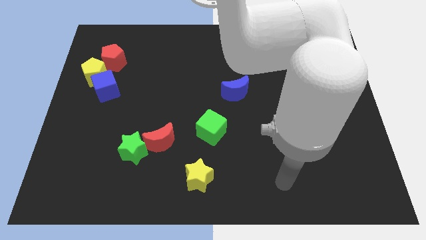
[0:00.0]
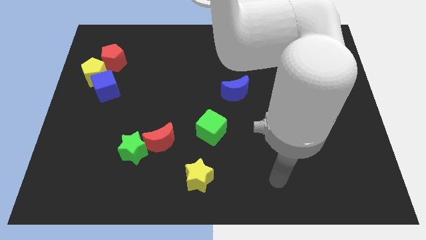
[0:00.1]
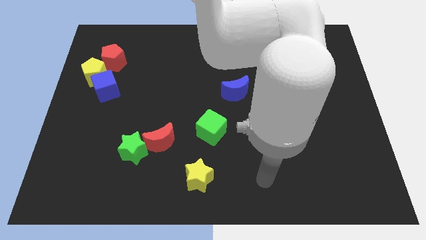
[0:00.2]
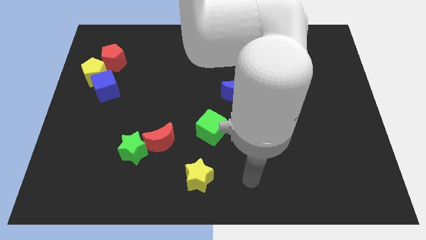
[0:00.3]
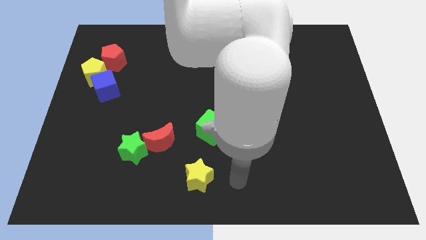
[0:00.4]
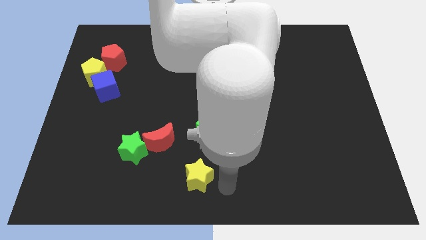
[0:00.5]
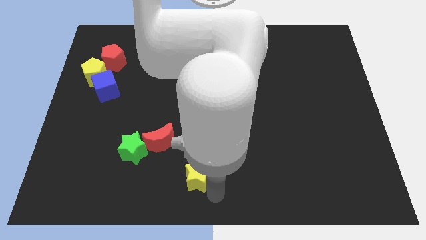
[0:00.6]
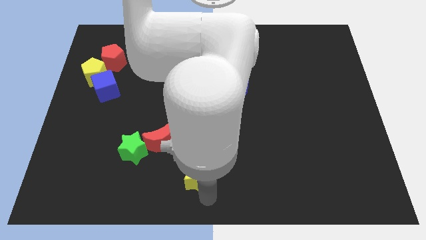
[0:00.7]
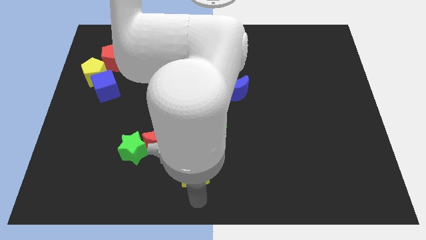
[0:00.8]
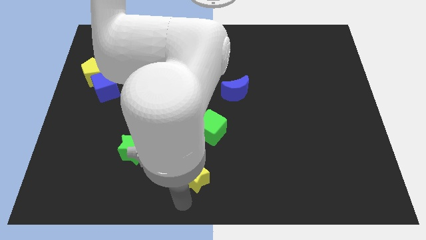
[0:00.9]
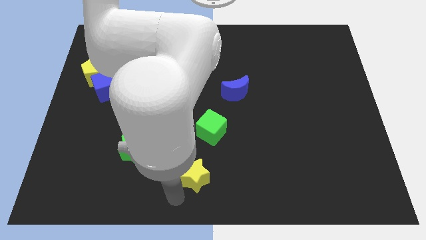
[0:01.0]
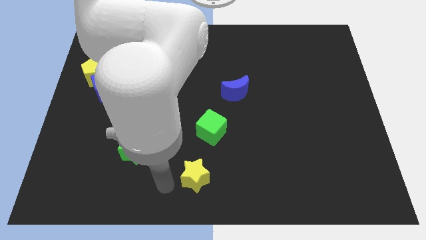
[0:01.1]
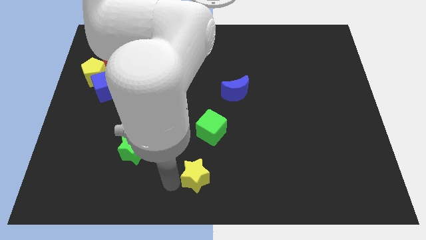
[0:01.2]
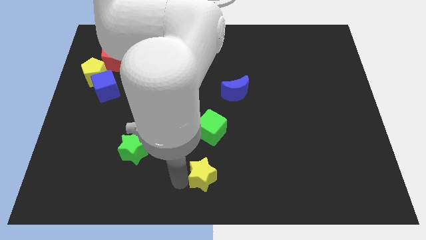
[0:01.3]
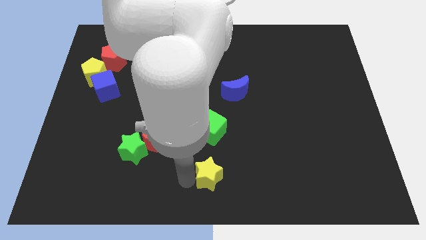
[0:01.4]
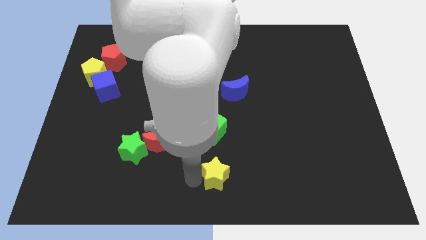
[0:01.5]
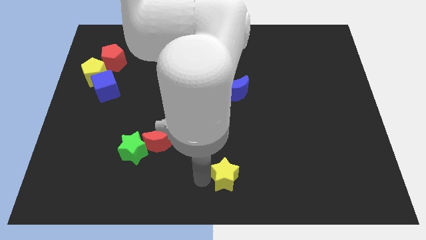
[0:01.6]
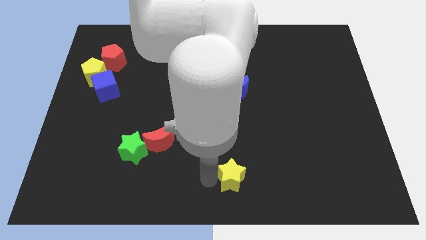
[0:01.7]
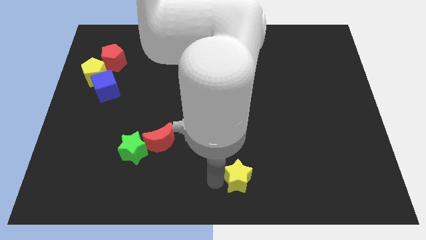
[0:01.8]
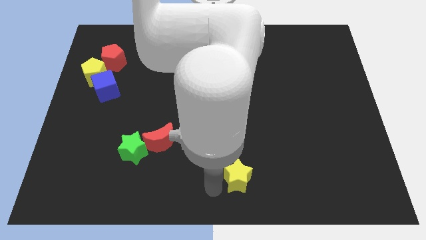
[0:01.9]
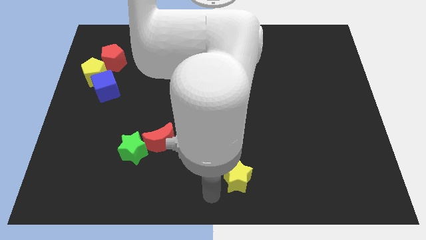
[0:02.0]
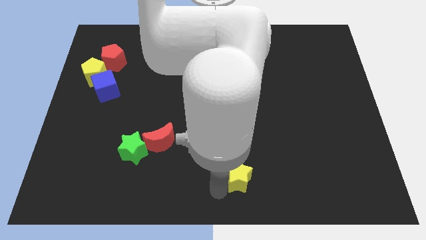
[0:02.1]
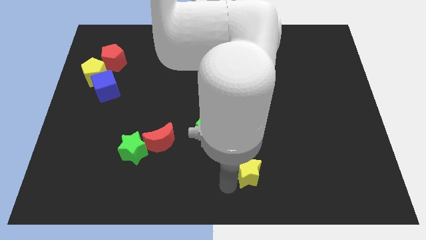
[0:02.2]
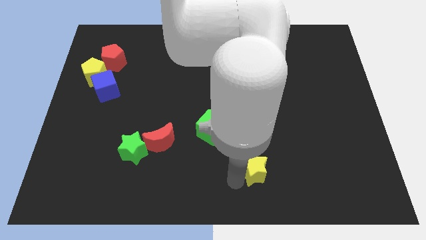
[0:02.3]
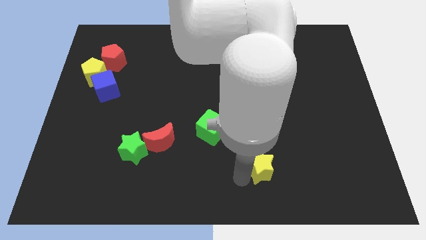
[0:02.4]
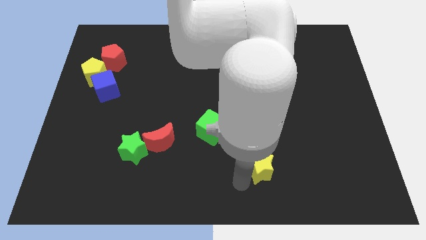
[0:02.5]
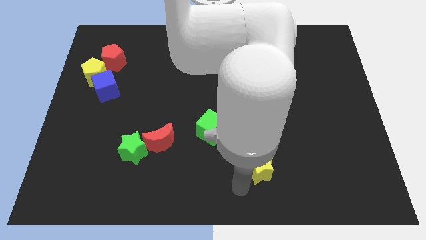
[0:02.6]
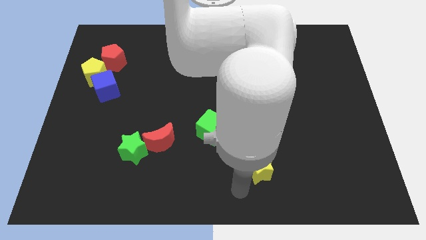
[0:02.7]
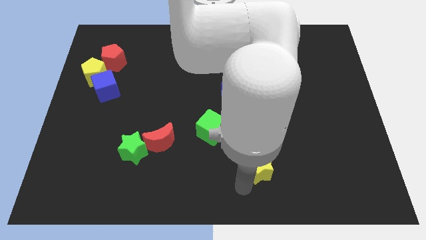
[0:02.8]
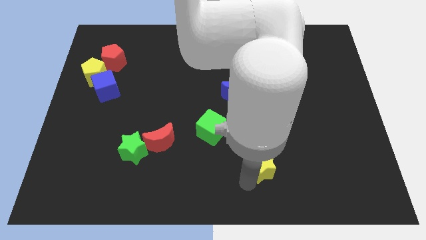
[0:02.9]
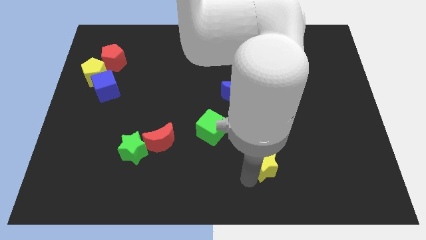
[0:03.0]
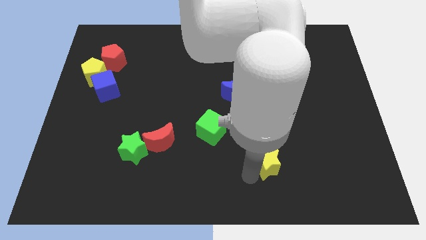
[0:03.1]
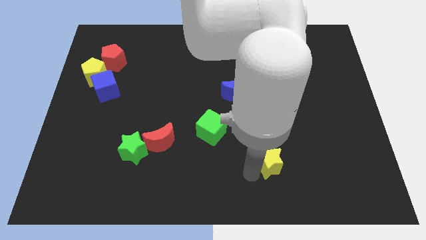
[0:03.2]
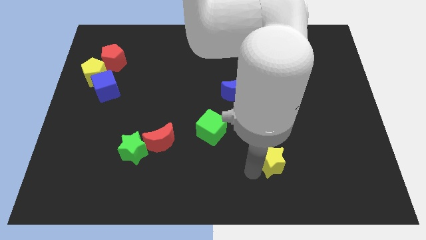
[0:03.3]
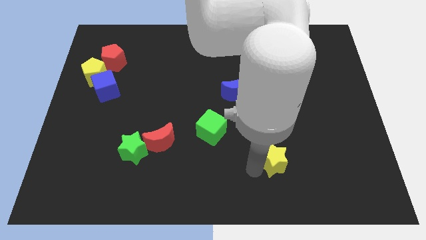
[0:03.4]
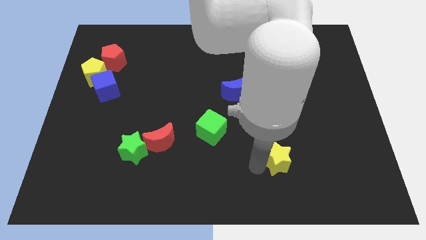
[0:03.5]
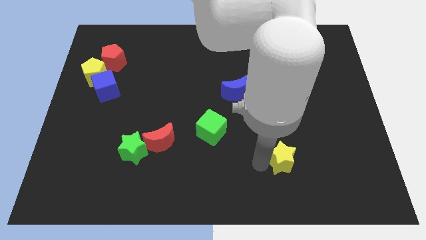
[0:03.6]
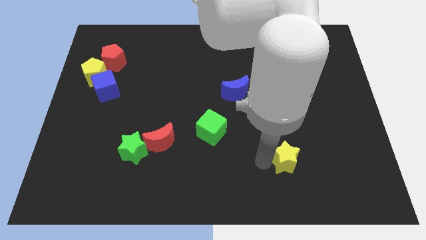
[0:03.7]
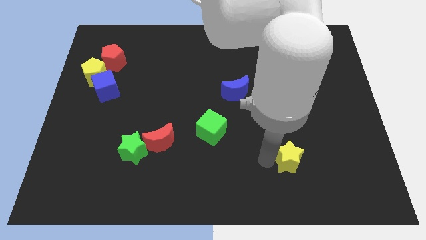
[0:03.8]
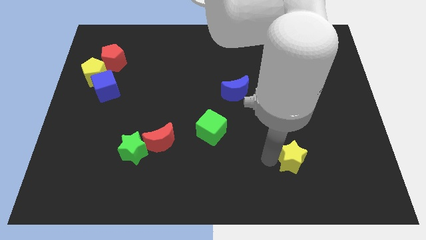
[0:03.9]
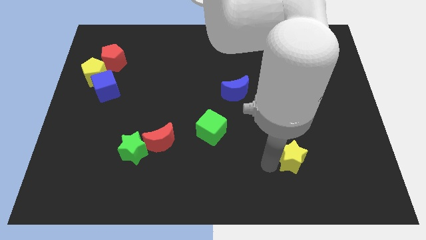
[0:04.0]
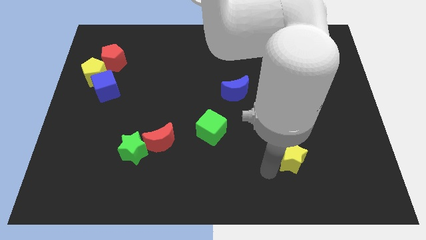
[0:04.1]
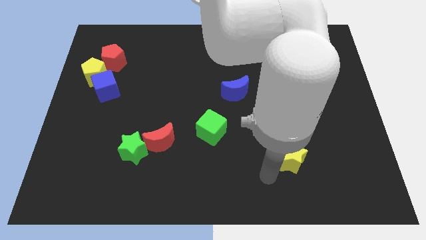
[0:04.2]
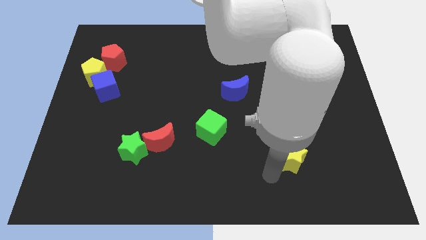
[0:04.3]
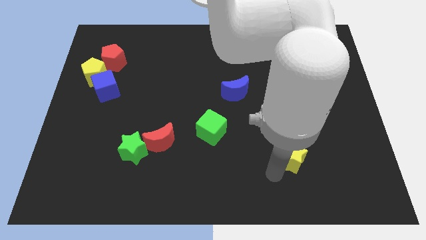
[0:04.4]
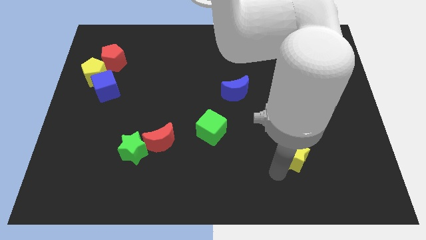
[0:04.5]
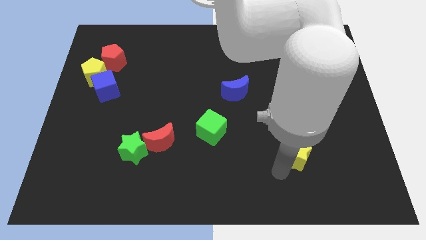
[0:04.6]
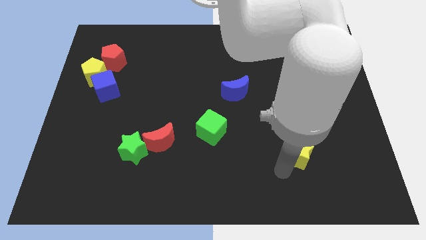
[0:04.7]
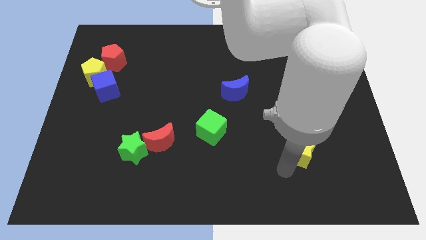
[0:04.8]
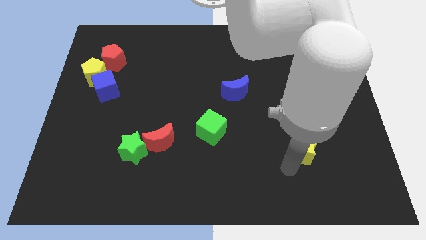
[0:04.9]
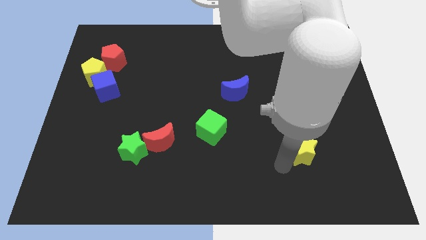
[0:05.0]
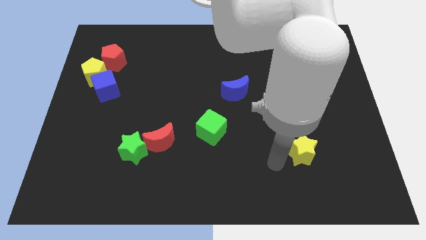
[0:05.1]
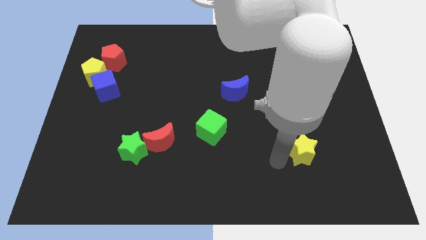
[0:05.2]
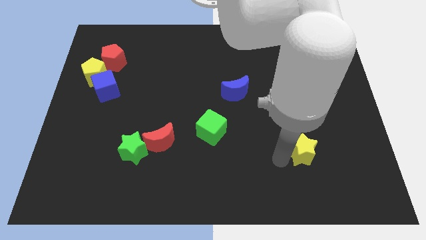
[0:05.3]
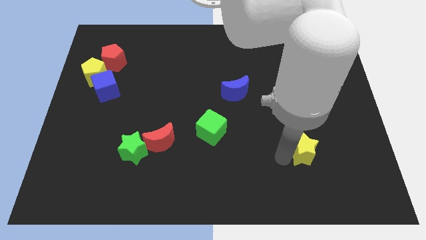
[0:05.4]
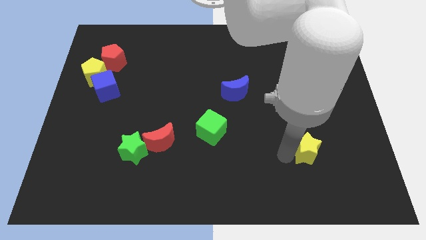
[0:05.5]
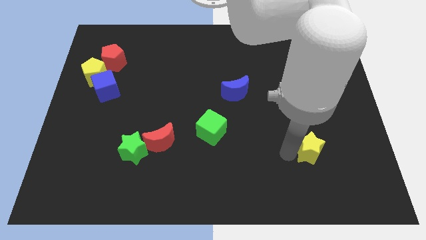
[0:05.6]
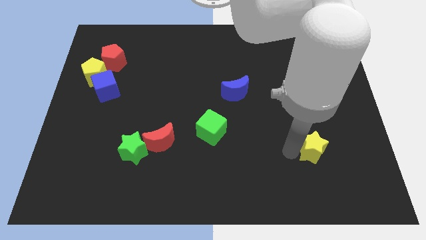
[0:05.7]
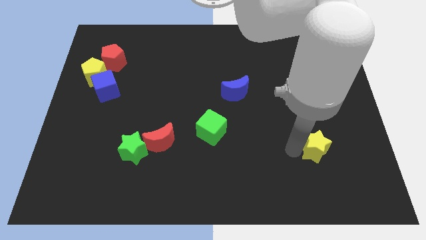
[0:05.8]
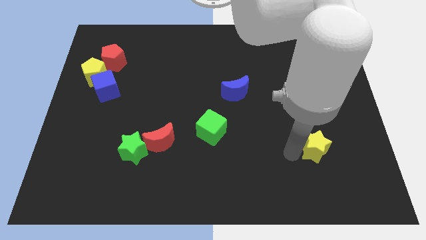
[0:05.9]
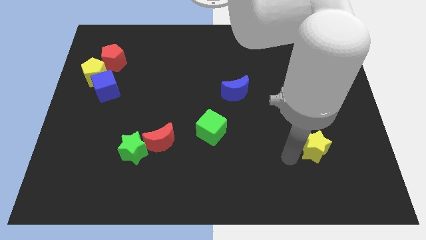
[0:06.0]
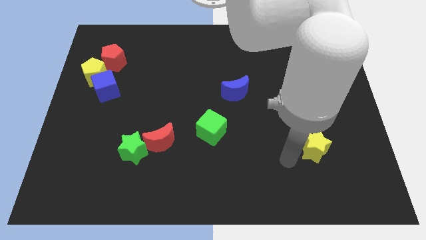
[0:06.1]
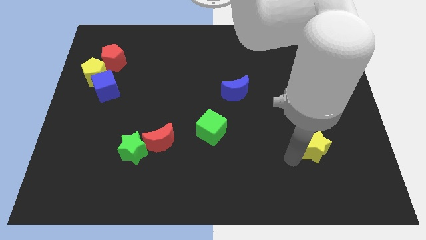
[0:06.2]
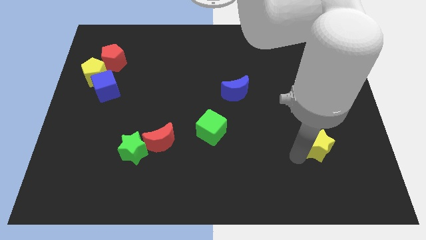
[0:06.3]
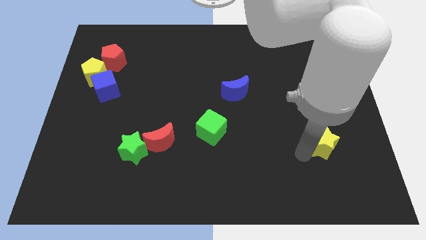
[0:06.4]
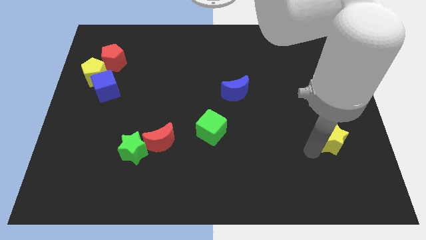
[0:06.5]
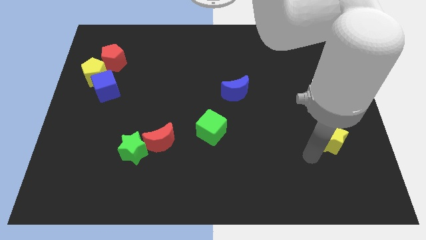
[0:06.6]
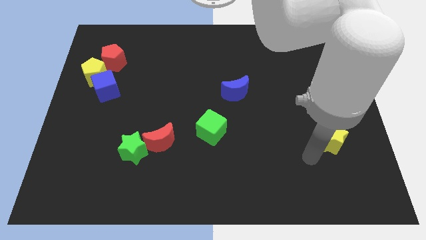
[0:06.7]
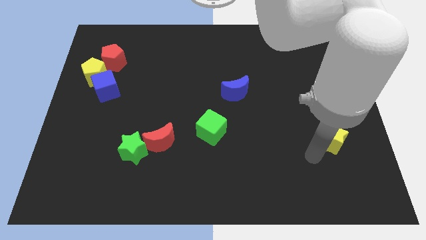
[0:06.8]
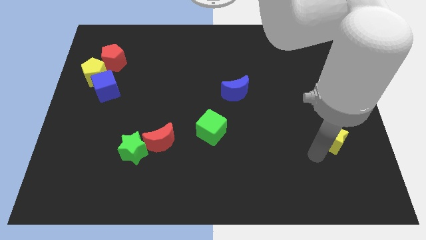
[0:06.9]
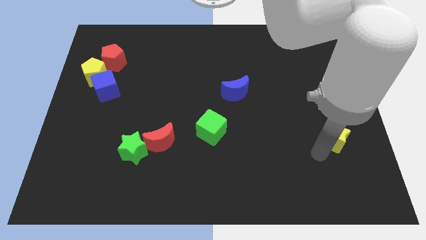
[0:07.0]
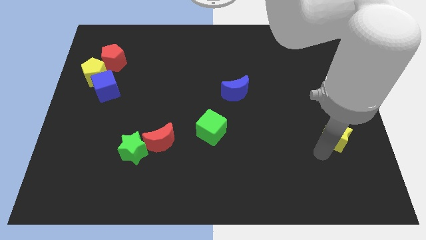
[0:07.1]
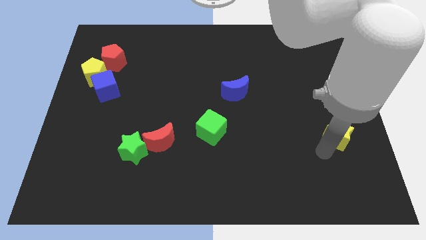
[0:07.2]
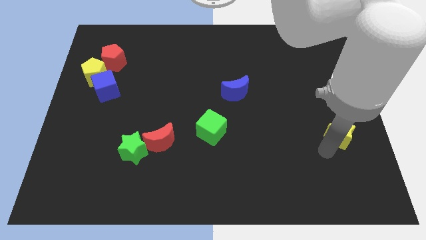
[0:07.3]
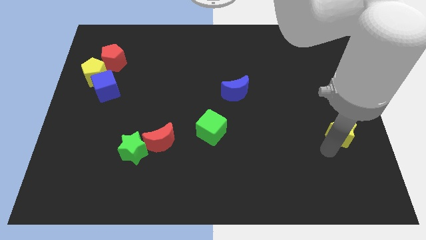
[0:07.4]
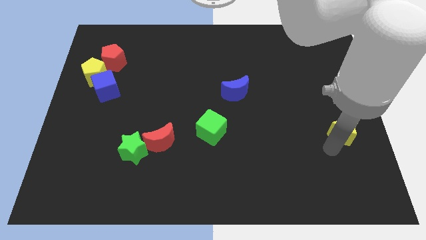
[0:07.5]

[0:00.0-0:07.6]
move the yellow star to the right side
